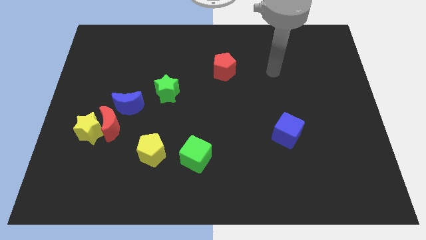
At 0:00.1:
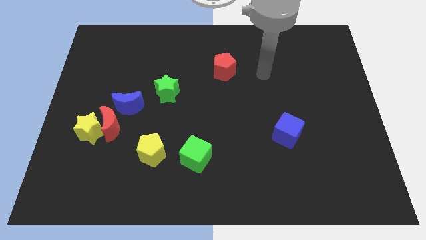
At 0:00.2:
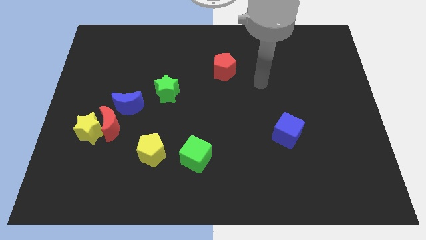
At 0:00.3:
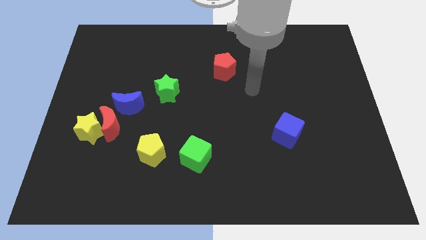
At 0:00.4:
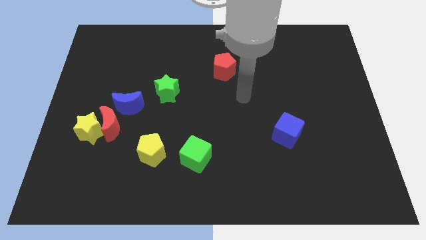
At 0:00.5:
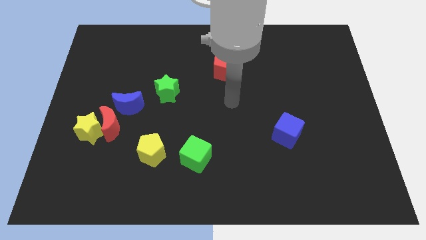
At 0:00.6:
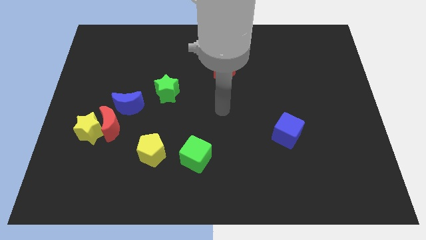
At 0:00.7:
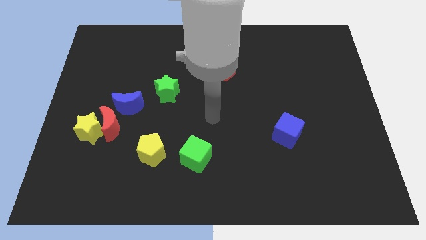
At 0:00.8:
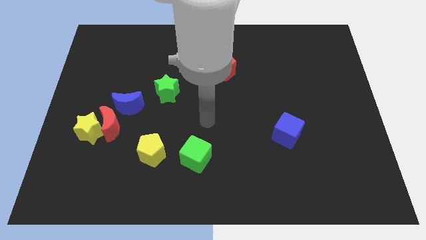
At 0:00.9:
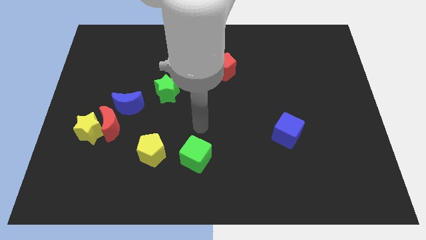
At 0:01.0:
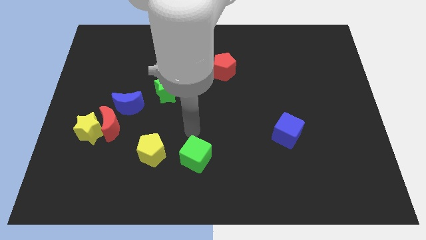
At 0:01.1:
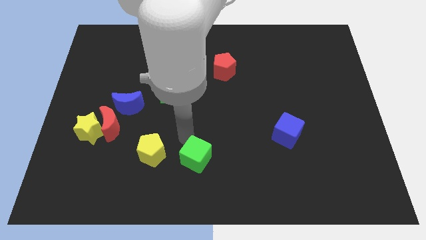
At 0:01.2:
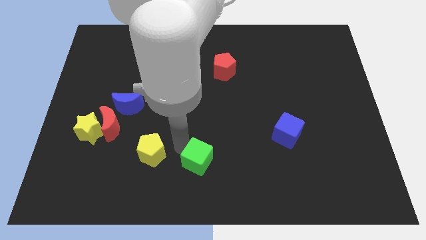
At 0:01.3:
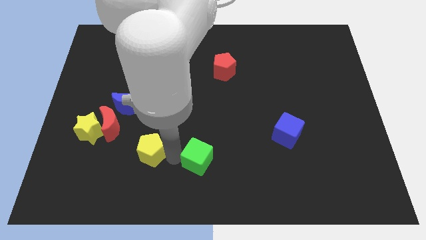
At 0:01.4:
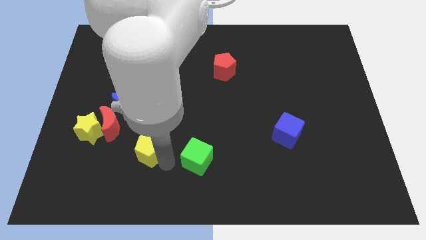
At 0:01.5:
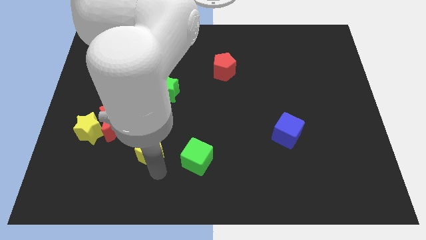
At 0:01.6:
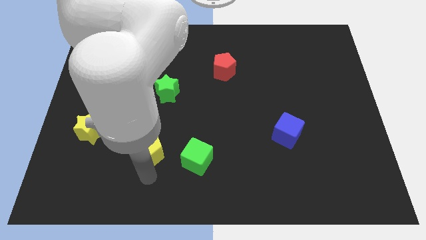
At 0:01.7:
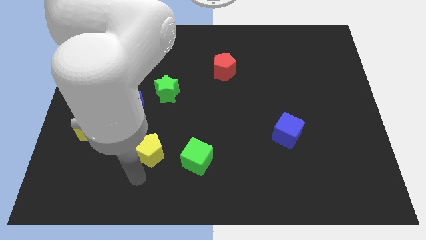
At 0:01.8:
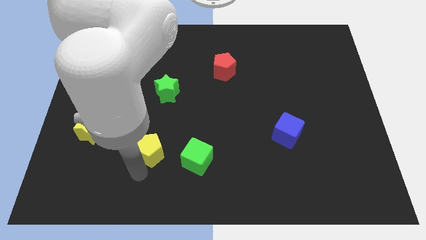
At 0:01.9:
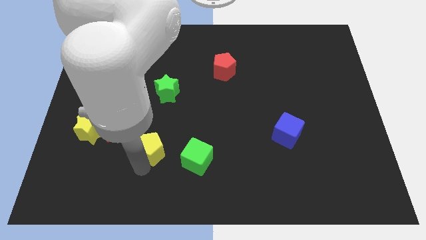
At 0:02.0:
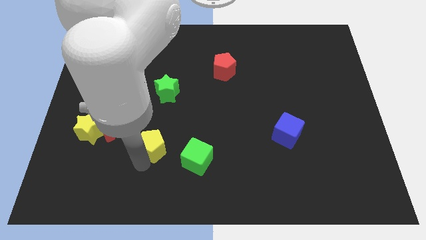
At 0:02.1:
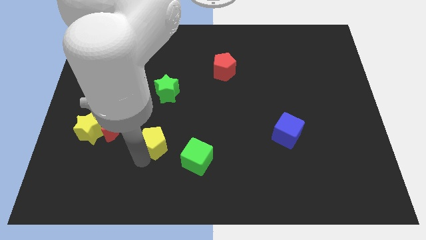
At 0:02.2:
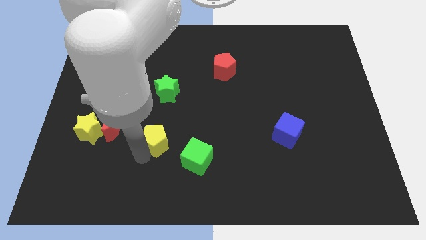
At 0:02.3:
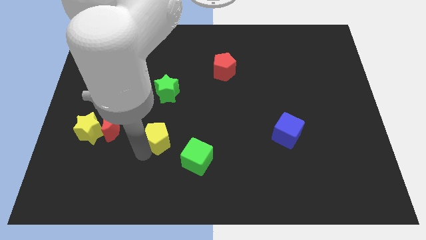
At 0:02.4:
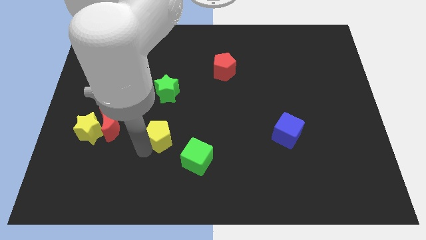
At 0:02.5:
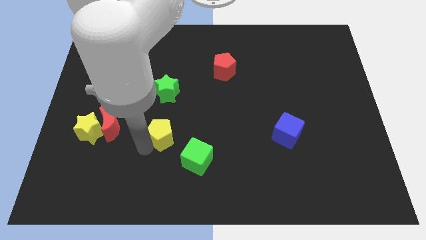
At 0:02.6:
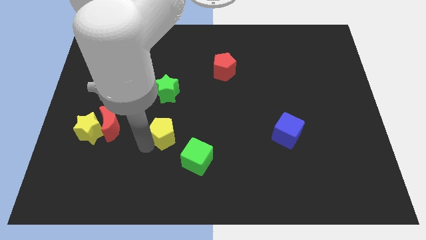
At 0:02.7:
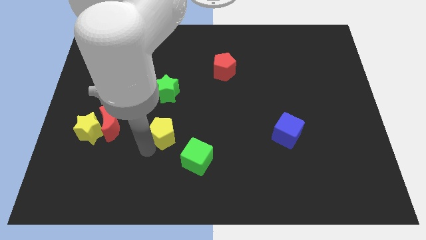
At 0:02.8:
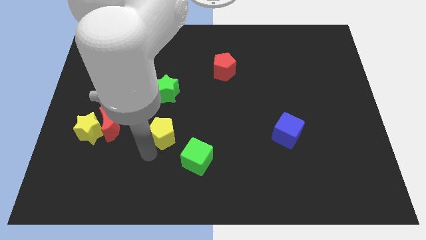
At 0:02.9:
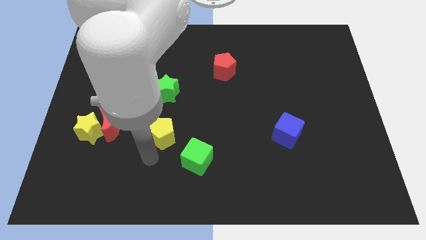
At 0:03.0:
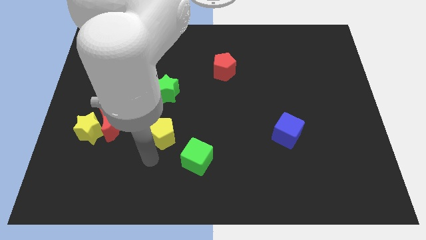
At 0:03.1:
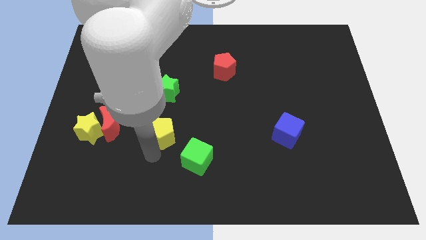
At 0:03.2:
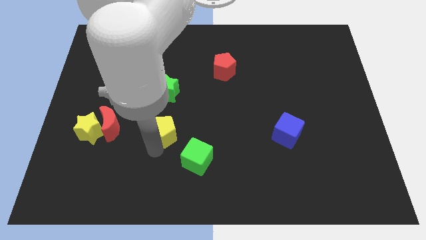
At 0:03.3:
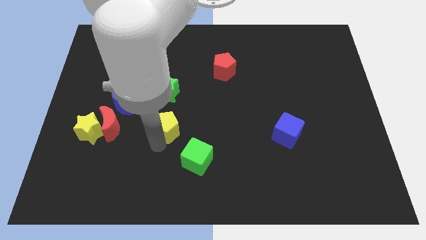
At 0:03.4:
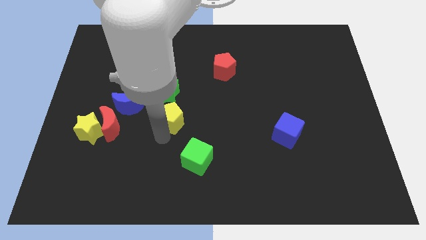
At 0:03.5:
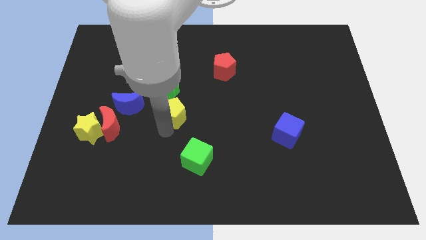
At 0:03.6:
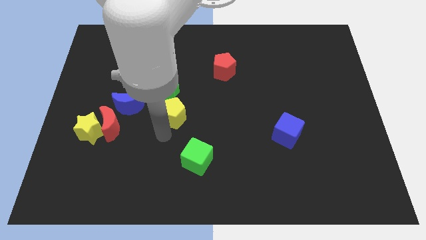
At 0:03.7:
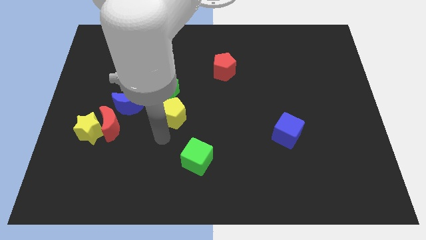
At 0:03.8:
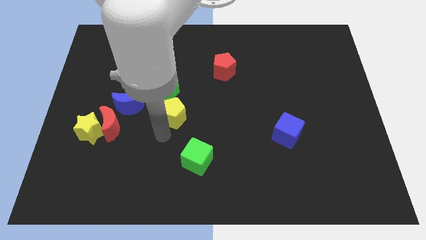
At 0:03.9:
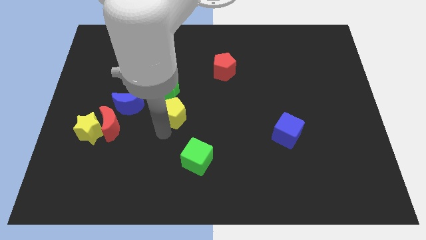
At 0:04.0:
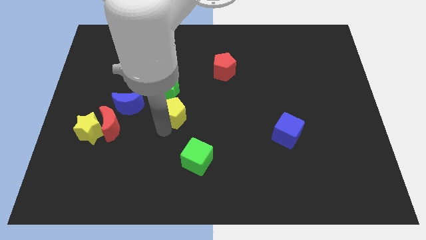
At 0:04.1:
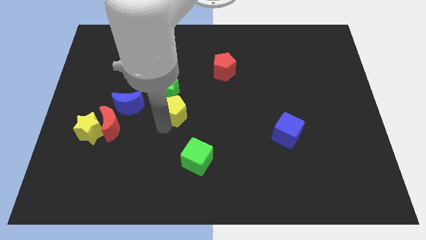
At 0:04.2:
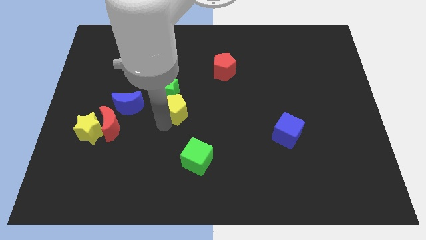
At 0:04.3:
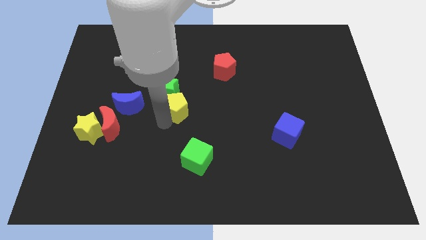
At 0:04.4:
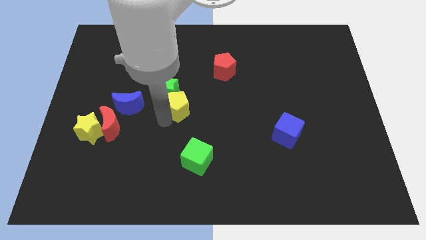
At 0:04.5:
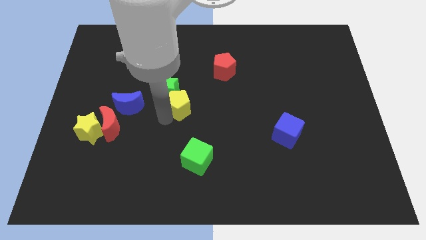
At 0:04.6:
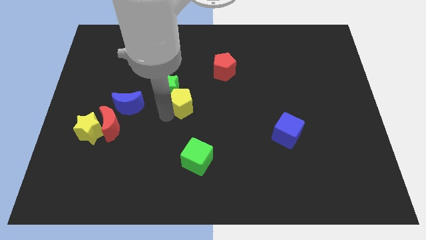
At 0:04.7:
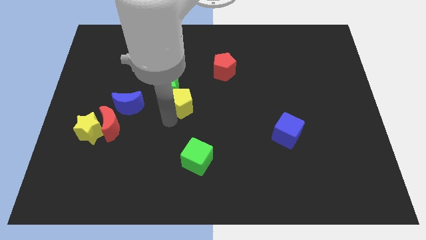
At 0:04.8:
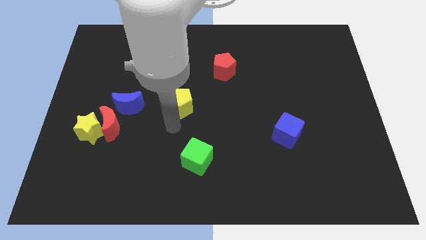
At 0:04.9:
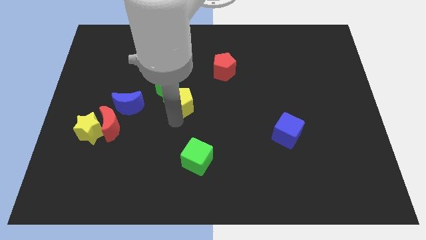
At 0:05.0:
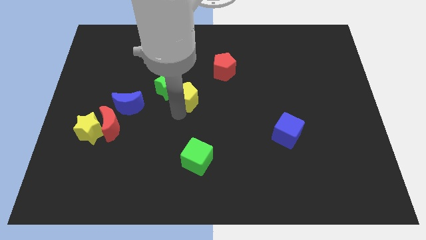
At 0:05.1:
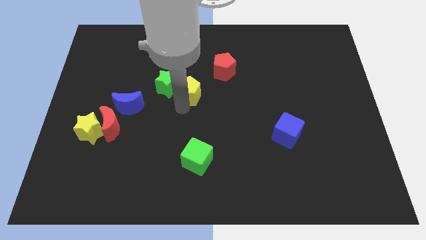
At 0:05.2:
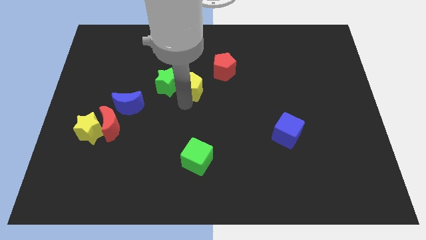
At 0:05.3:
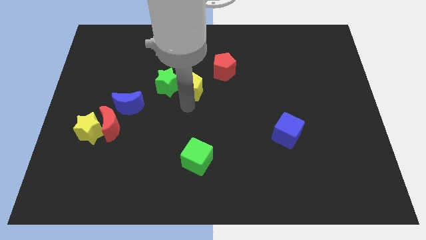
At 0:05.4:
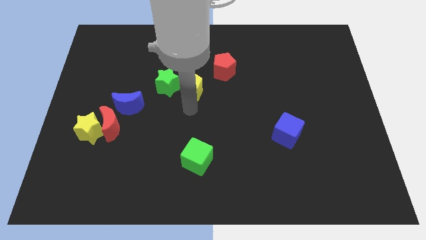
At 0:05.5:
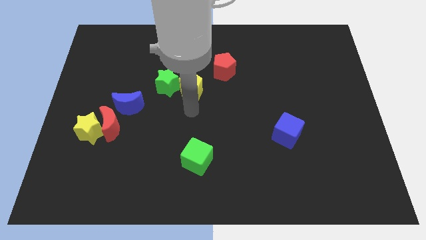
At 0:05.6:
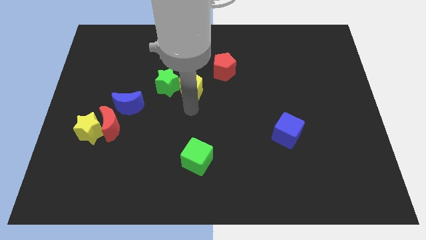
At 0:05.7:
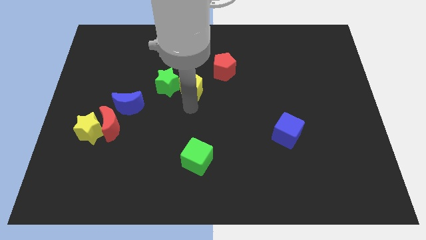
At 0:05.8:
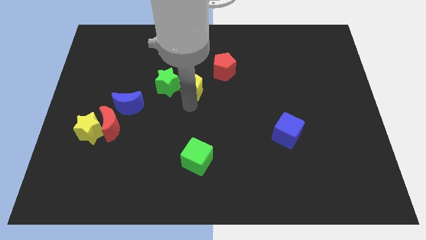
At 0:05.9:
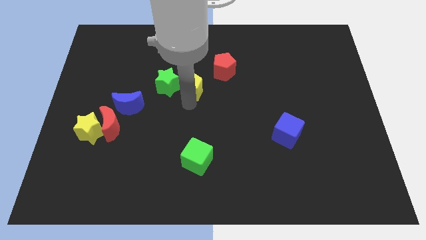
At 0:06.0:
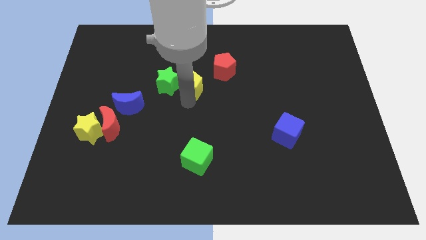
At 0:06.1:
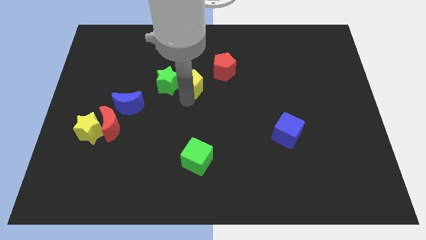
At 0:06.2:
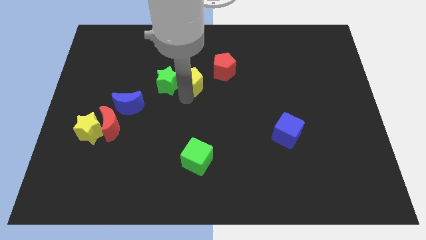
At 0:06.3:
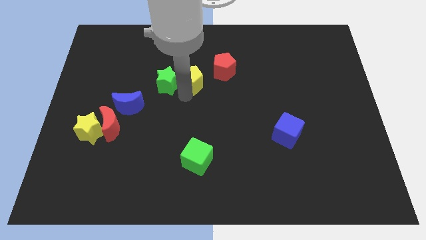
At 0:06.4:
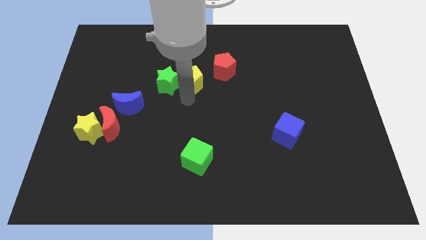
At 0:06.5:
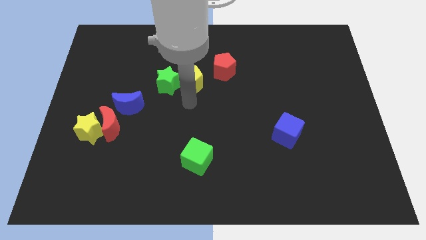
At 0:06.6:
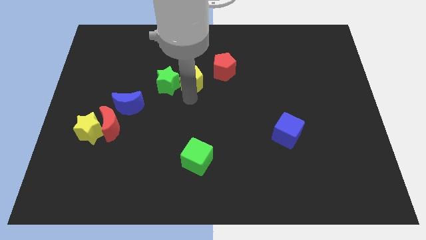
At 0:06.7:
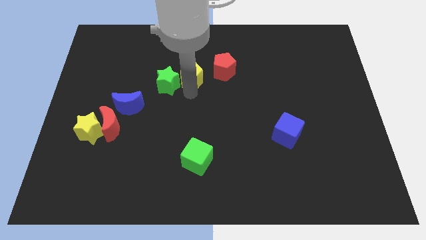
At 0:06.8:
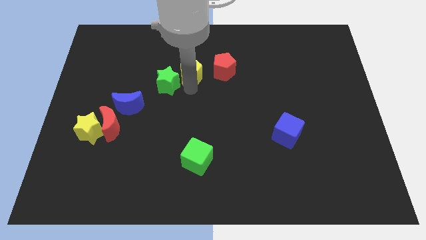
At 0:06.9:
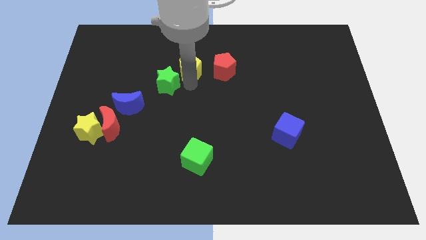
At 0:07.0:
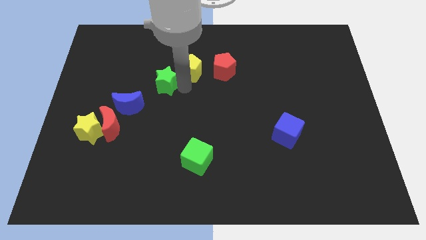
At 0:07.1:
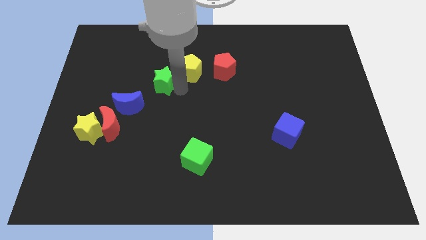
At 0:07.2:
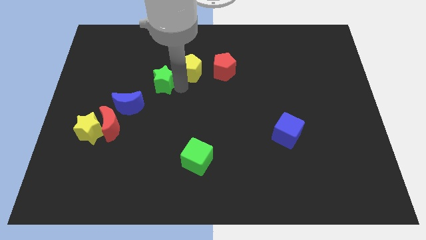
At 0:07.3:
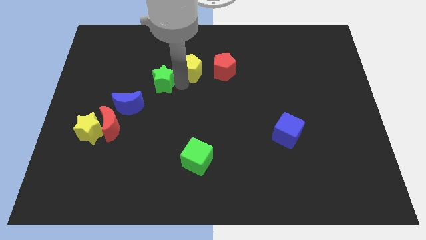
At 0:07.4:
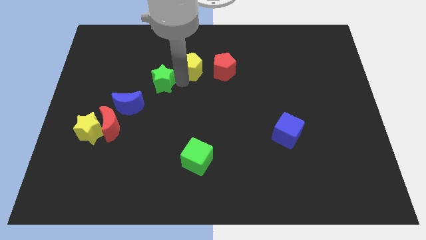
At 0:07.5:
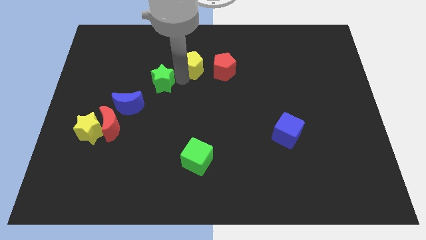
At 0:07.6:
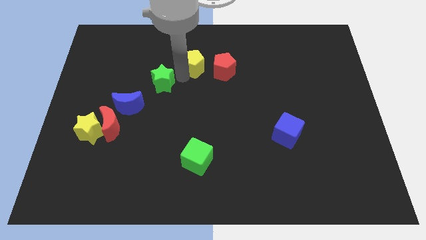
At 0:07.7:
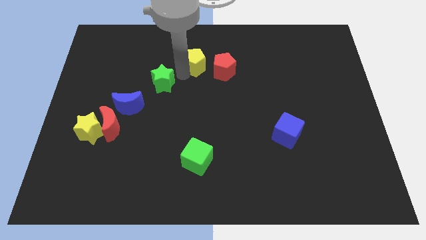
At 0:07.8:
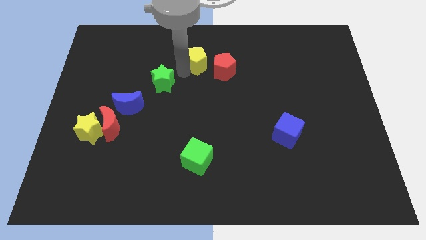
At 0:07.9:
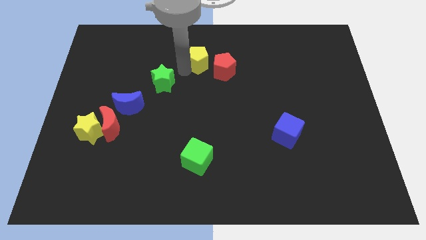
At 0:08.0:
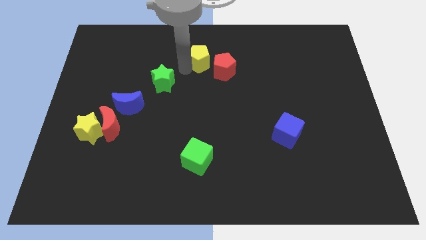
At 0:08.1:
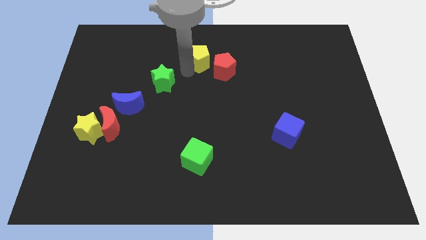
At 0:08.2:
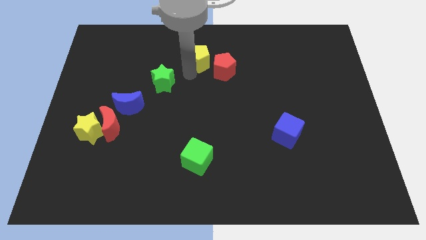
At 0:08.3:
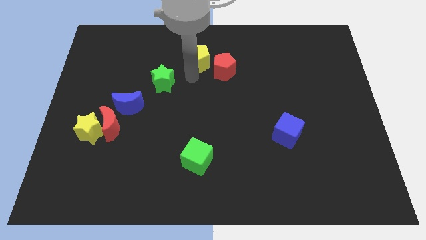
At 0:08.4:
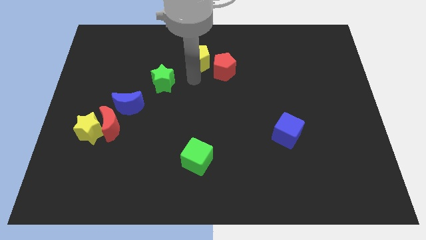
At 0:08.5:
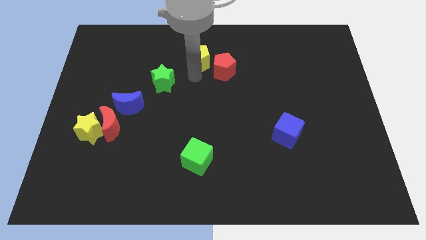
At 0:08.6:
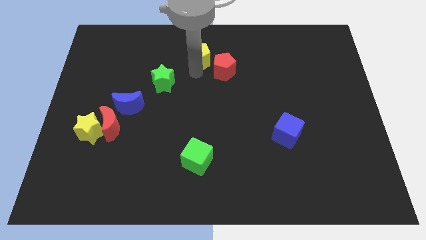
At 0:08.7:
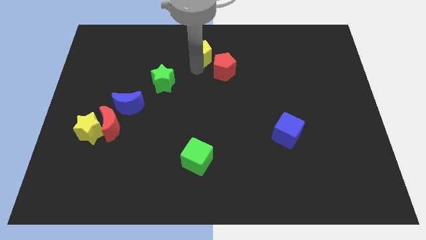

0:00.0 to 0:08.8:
put the yellow pentagon to the top side
